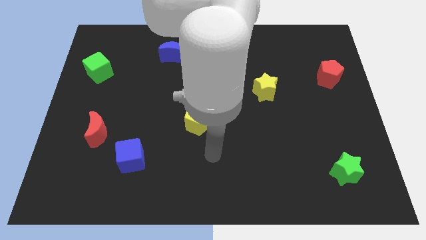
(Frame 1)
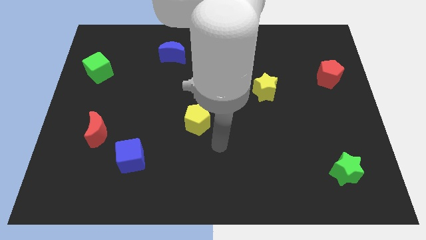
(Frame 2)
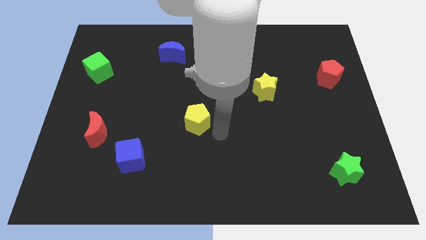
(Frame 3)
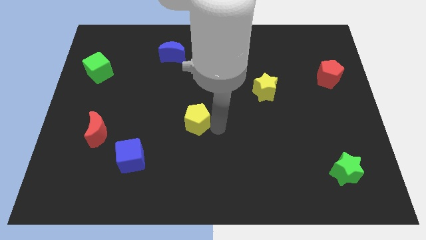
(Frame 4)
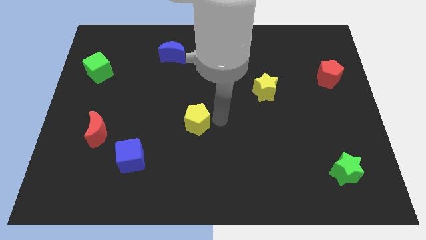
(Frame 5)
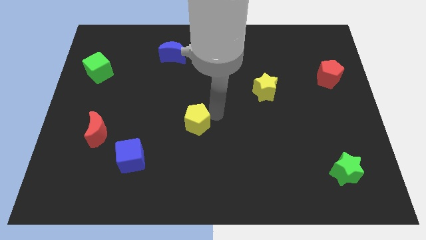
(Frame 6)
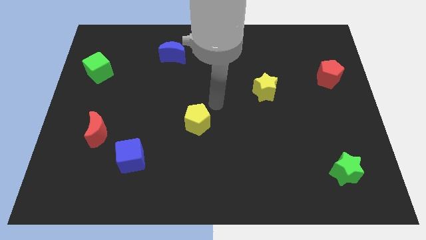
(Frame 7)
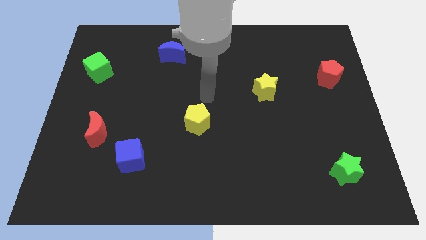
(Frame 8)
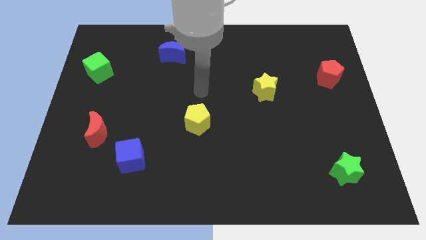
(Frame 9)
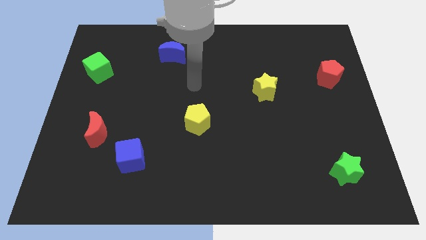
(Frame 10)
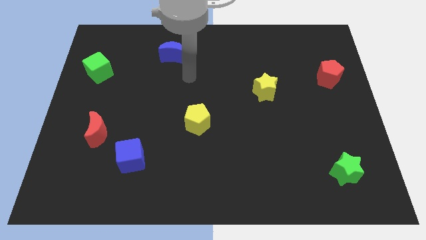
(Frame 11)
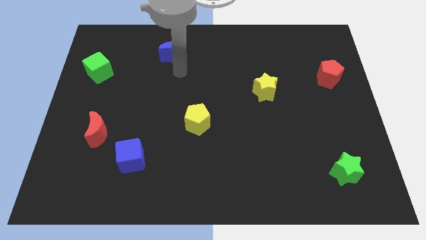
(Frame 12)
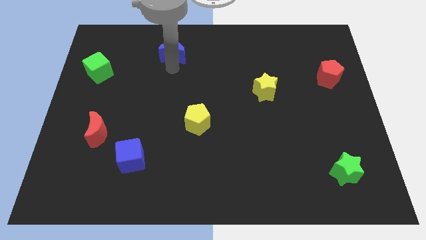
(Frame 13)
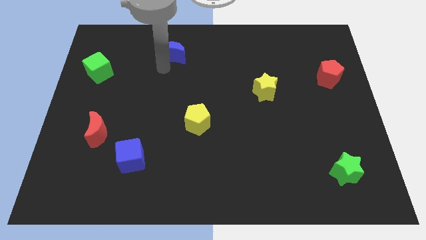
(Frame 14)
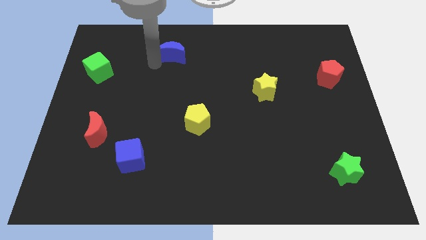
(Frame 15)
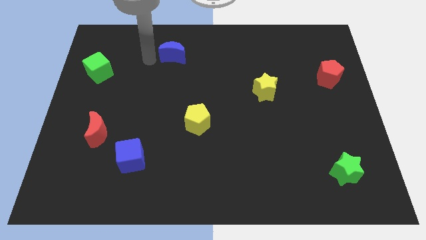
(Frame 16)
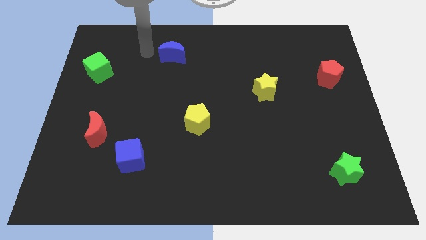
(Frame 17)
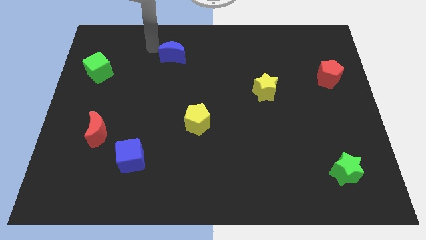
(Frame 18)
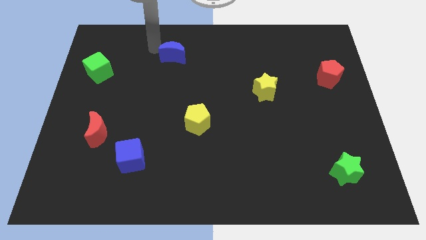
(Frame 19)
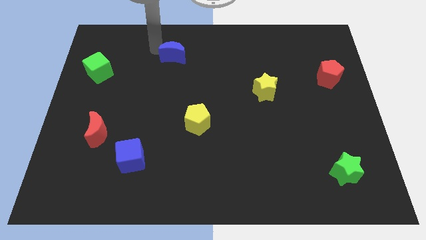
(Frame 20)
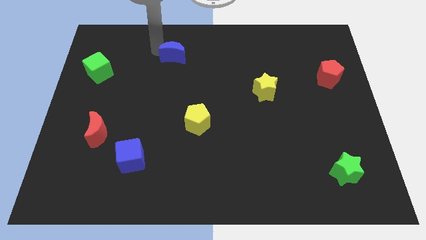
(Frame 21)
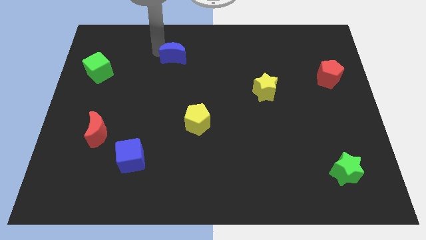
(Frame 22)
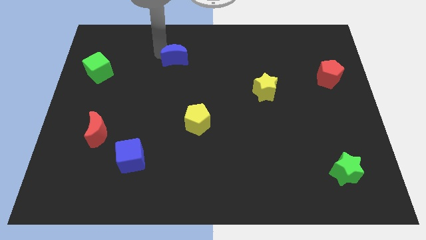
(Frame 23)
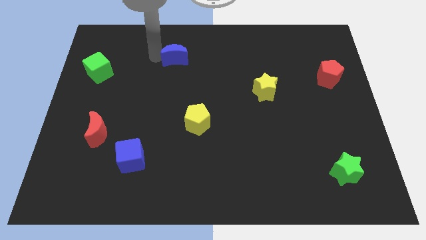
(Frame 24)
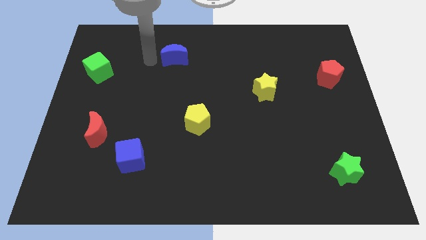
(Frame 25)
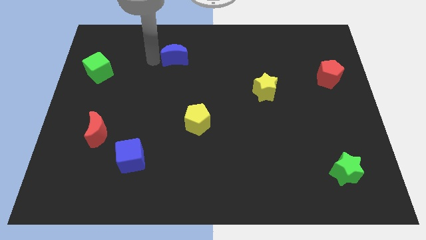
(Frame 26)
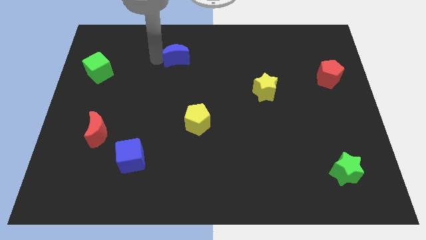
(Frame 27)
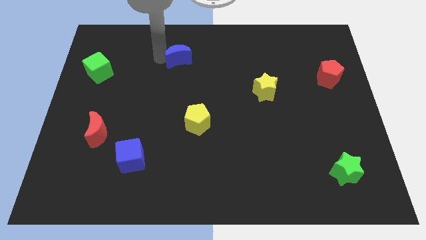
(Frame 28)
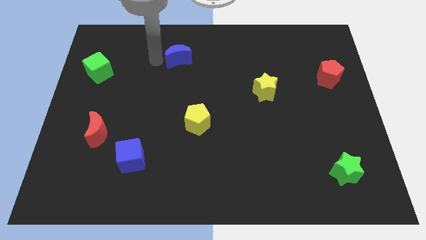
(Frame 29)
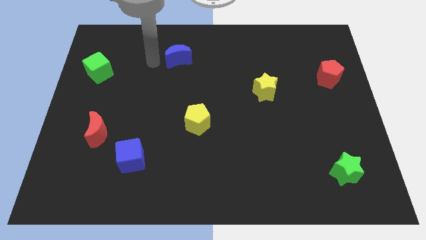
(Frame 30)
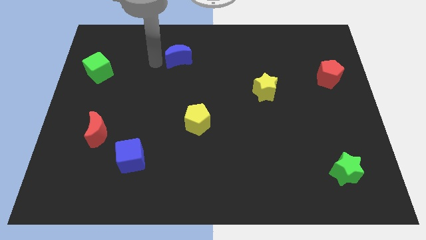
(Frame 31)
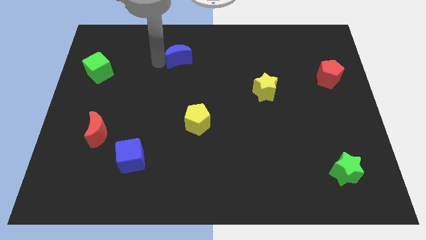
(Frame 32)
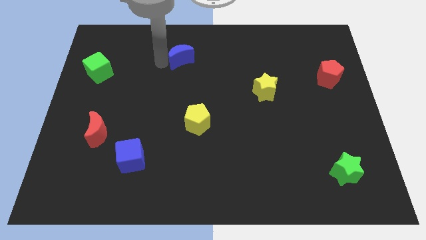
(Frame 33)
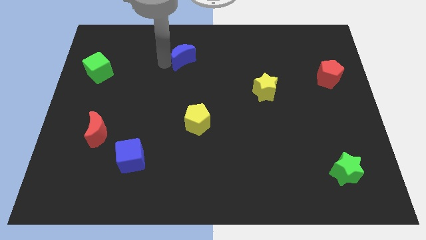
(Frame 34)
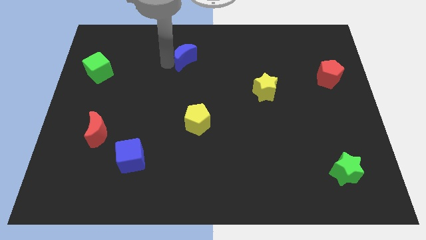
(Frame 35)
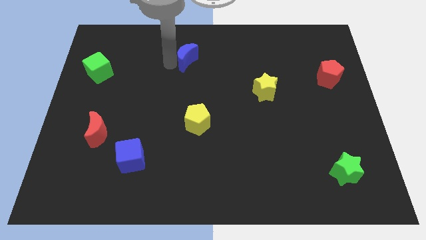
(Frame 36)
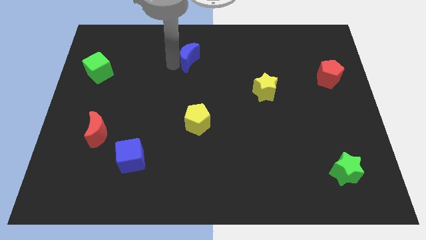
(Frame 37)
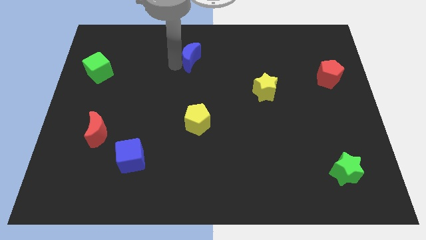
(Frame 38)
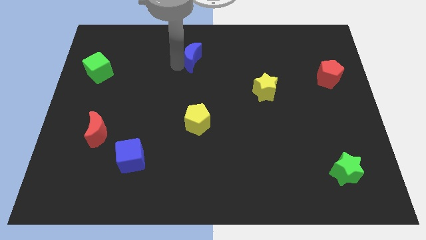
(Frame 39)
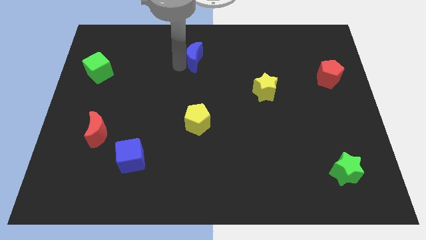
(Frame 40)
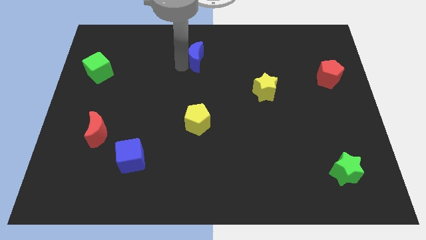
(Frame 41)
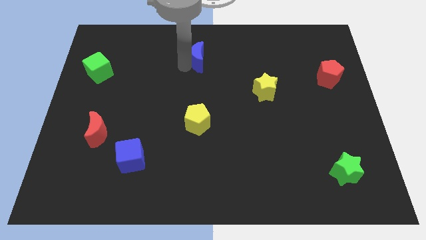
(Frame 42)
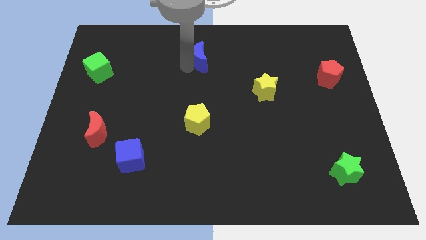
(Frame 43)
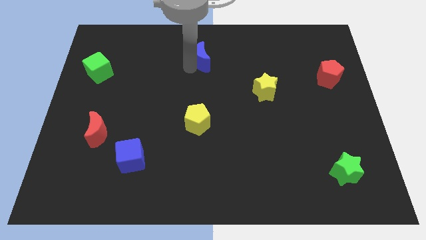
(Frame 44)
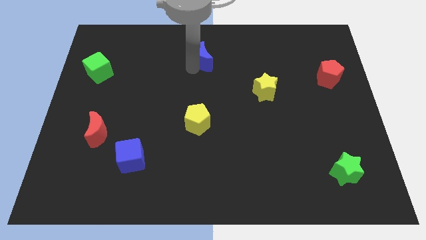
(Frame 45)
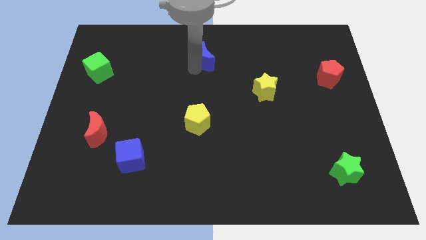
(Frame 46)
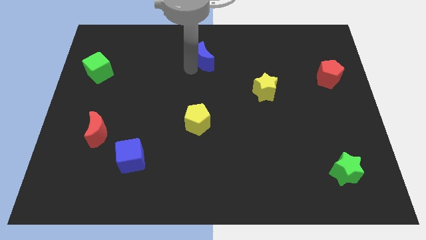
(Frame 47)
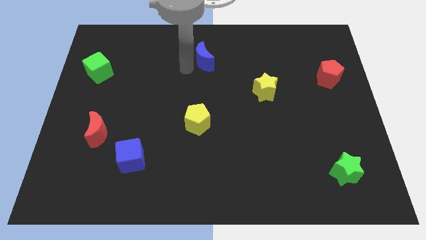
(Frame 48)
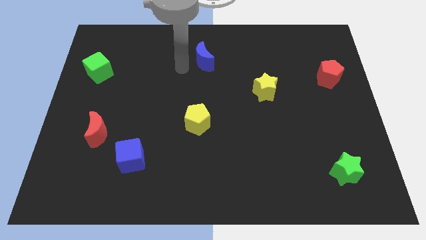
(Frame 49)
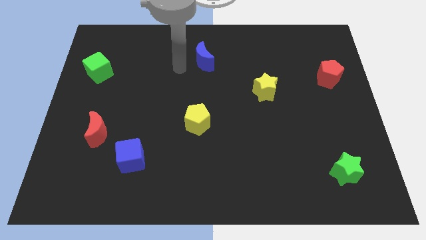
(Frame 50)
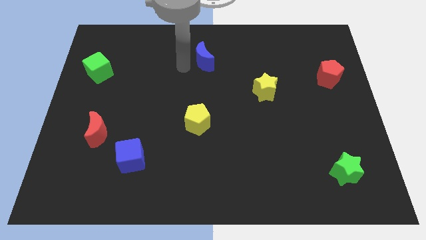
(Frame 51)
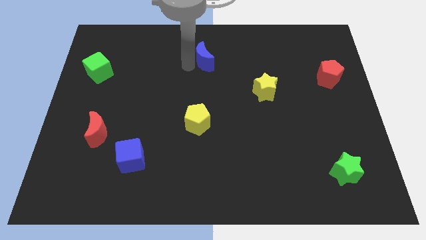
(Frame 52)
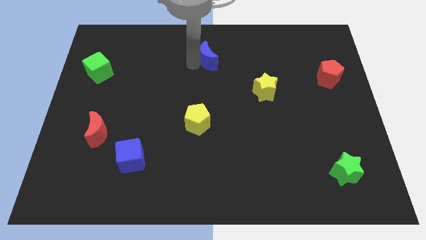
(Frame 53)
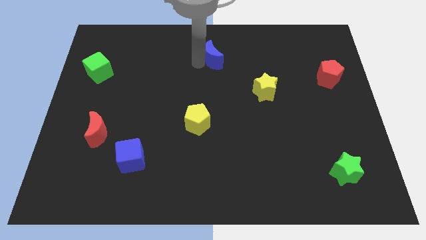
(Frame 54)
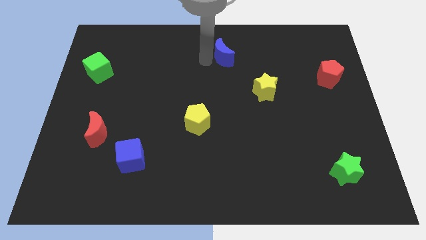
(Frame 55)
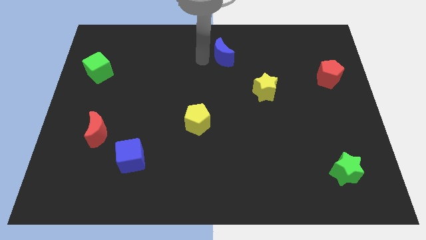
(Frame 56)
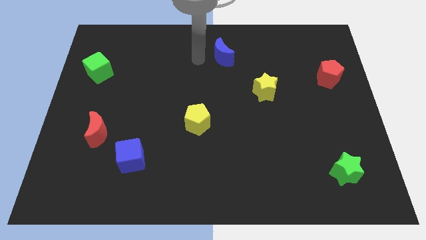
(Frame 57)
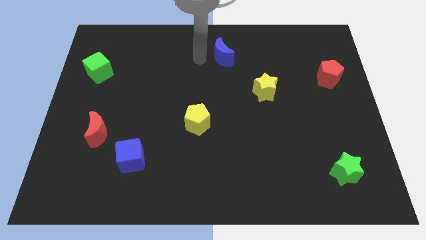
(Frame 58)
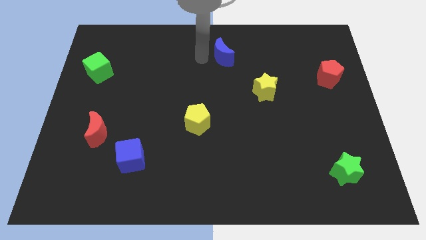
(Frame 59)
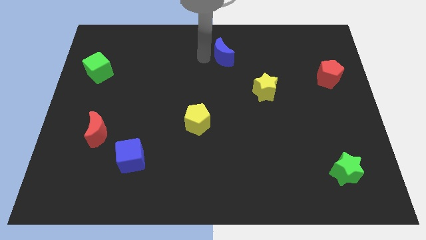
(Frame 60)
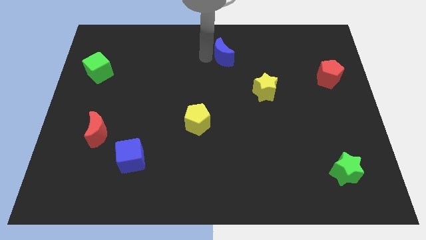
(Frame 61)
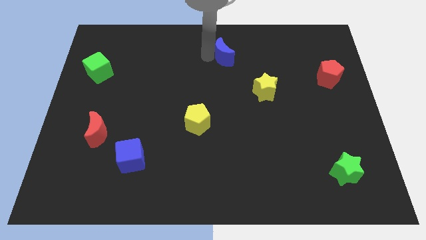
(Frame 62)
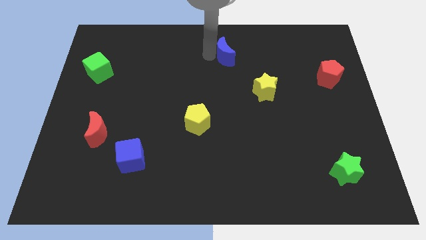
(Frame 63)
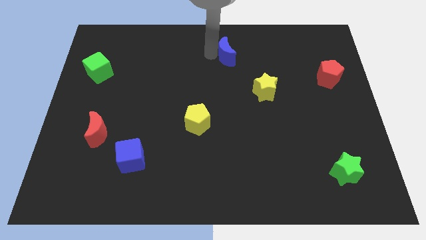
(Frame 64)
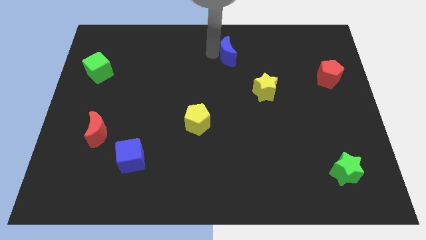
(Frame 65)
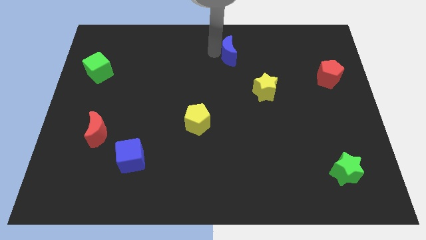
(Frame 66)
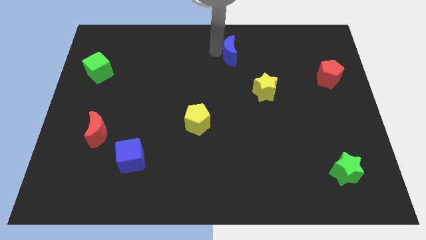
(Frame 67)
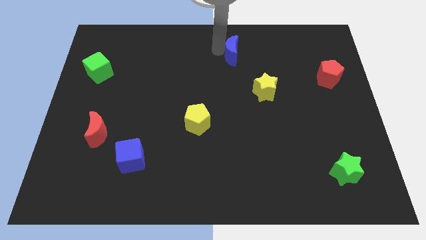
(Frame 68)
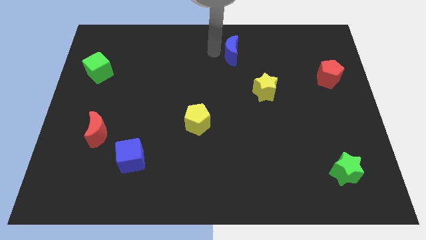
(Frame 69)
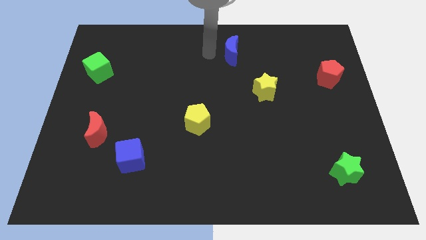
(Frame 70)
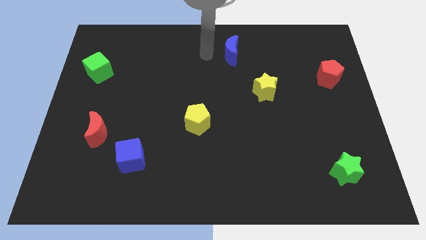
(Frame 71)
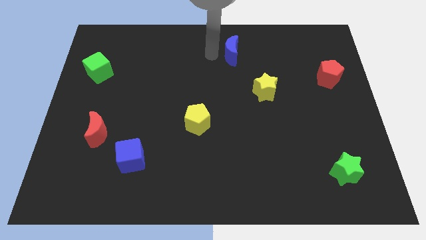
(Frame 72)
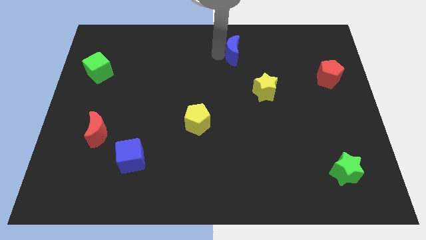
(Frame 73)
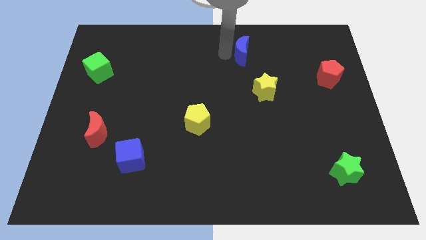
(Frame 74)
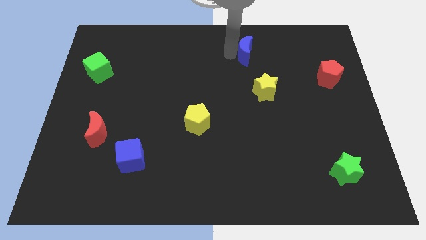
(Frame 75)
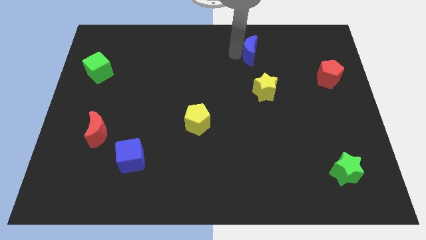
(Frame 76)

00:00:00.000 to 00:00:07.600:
move the blue moon right

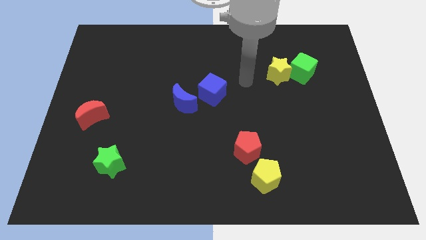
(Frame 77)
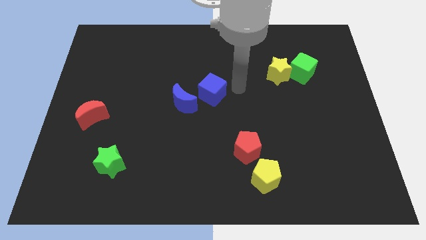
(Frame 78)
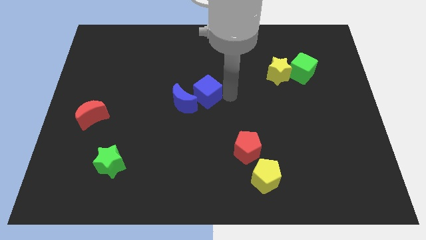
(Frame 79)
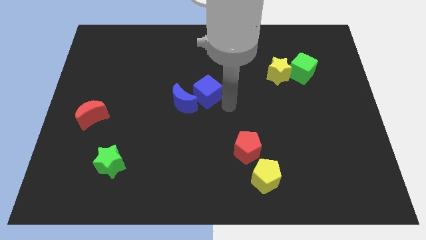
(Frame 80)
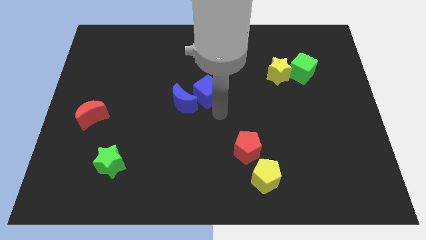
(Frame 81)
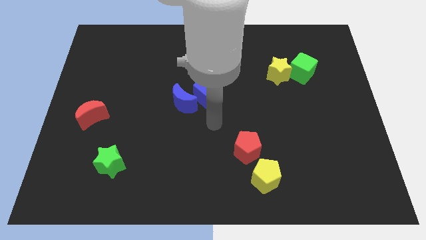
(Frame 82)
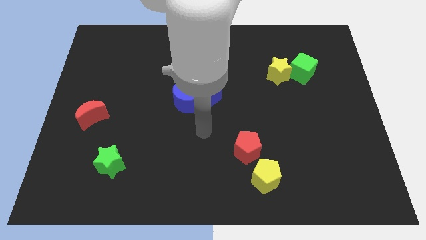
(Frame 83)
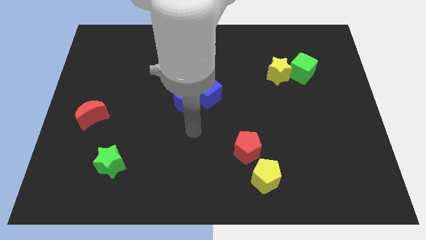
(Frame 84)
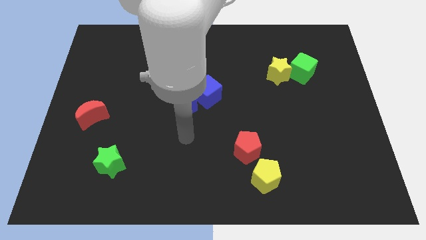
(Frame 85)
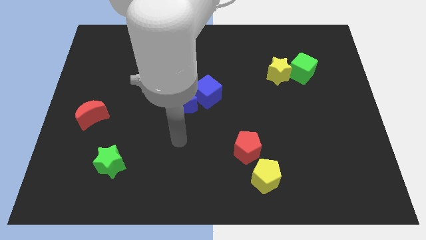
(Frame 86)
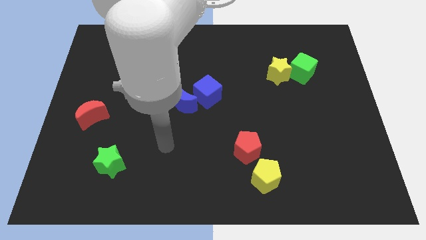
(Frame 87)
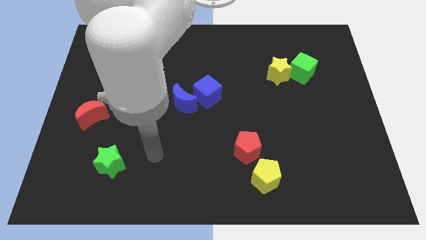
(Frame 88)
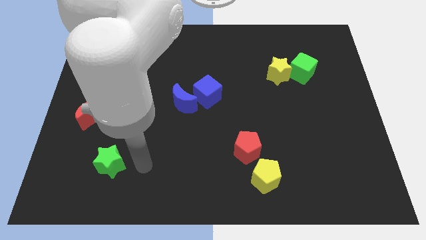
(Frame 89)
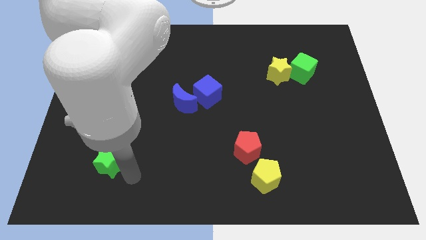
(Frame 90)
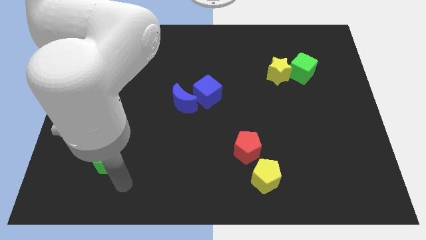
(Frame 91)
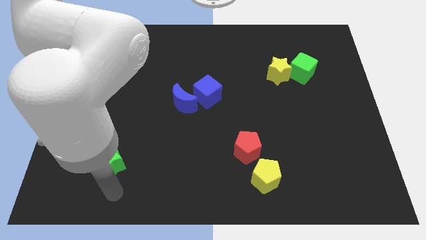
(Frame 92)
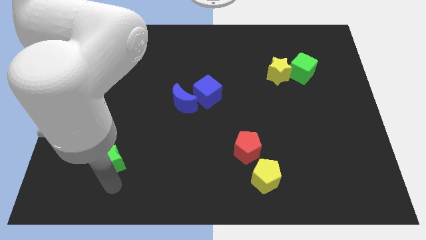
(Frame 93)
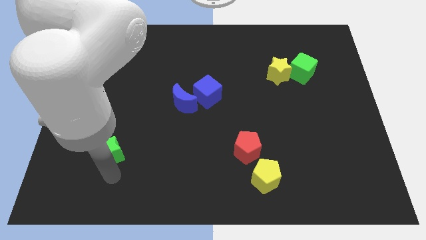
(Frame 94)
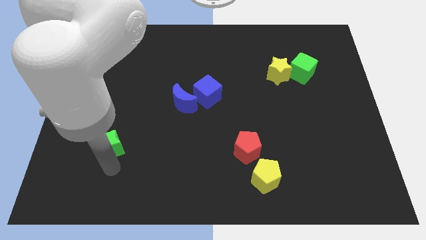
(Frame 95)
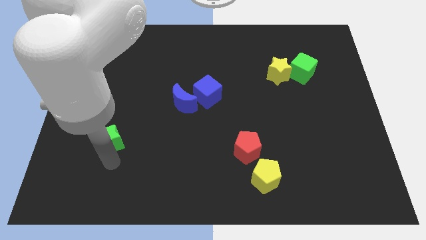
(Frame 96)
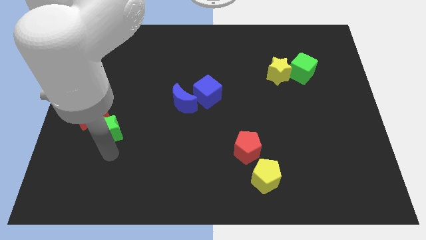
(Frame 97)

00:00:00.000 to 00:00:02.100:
move the green star upwards a little bit
